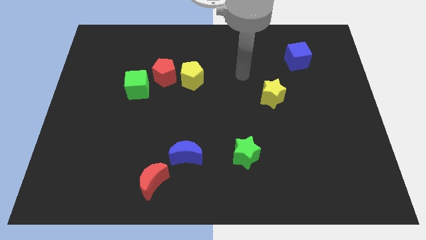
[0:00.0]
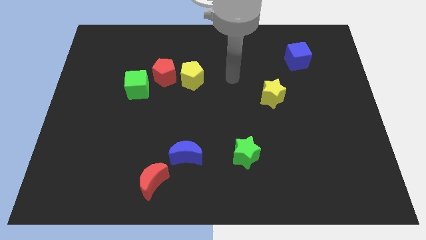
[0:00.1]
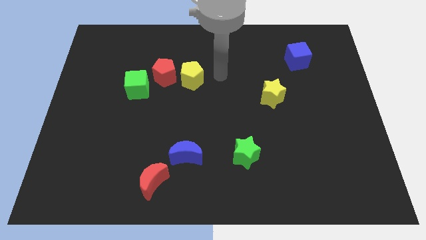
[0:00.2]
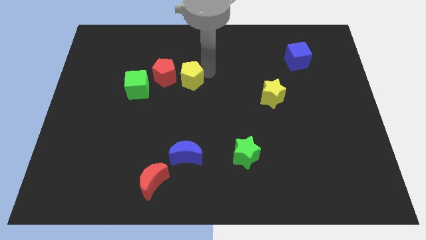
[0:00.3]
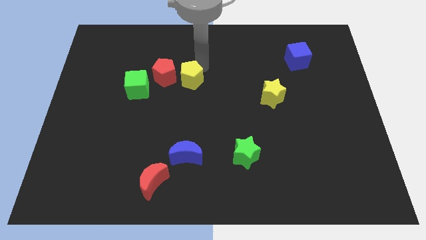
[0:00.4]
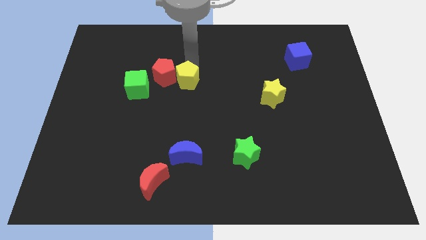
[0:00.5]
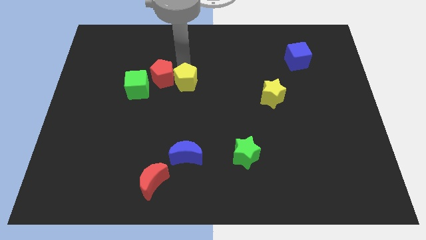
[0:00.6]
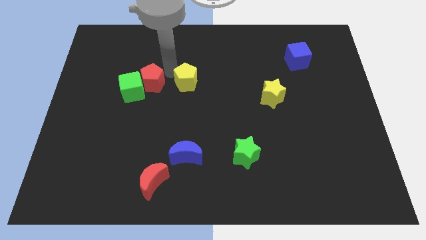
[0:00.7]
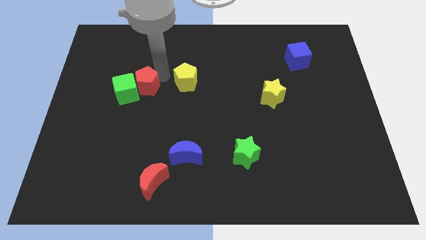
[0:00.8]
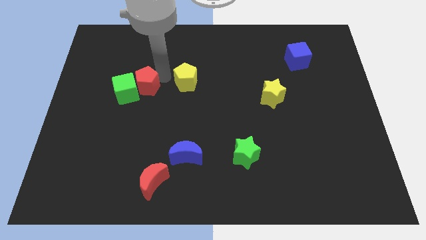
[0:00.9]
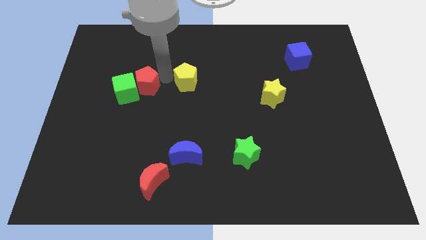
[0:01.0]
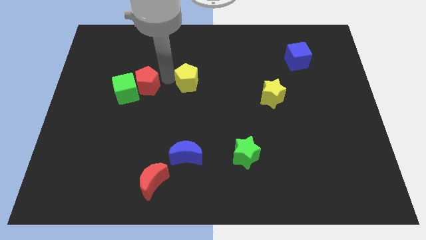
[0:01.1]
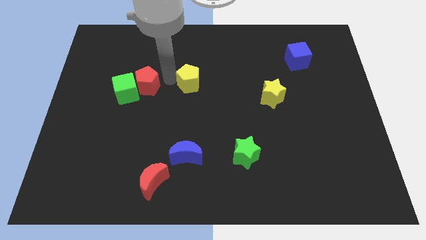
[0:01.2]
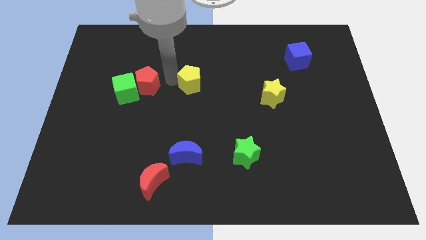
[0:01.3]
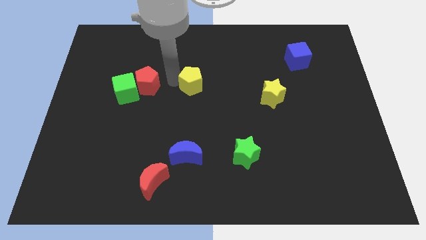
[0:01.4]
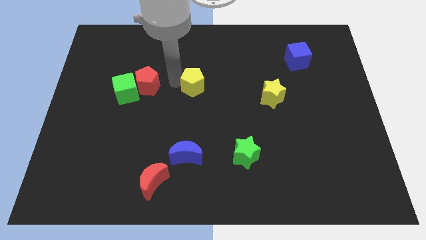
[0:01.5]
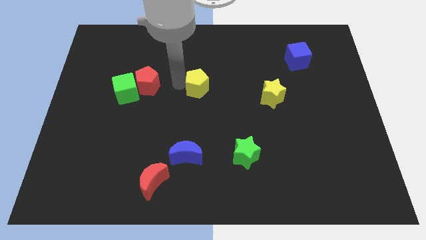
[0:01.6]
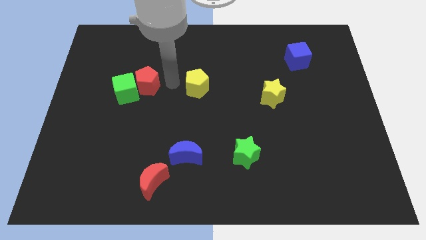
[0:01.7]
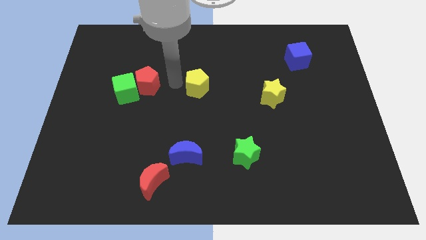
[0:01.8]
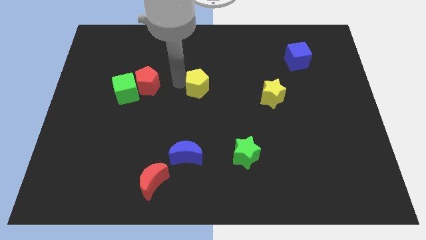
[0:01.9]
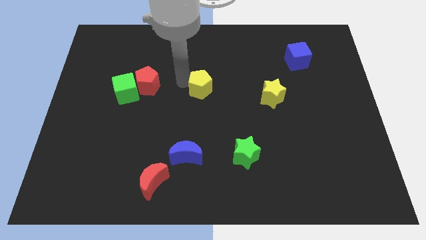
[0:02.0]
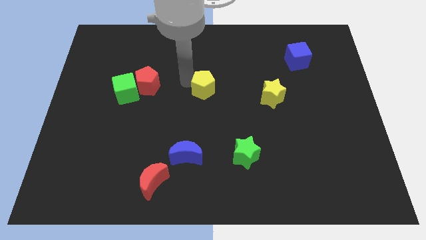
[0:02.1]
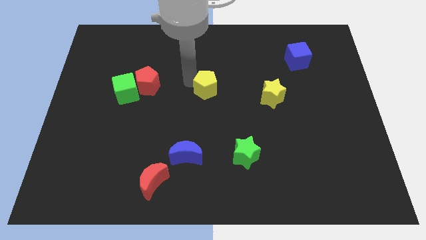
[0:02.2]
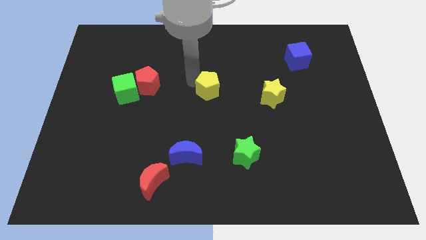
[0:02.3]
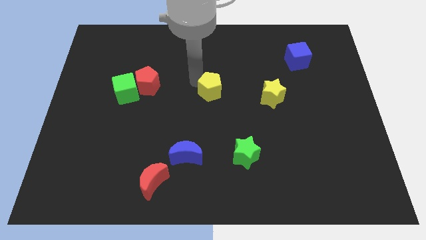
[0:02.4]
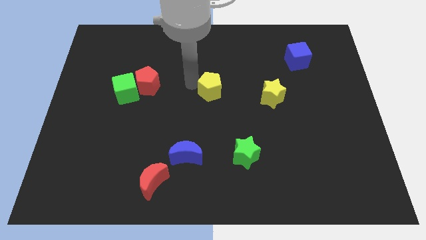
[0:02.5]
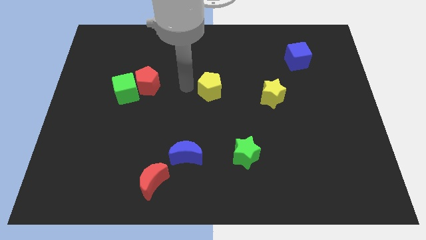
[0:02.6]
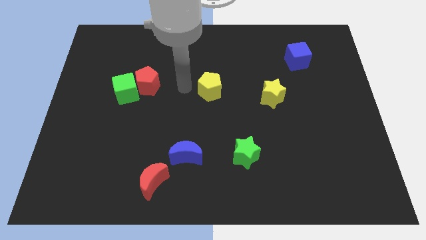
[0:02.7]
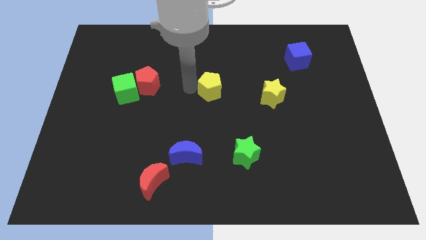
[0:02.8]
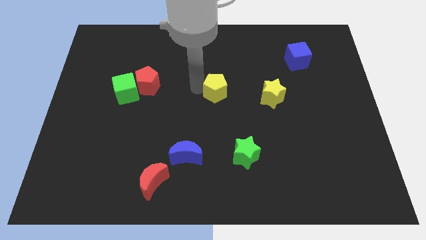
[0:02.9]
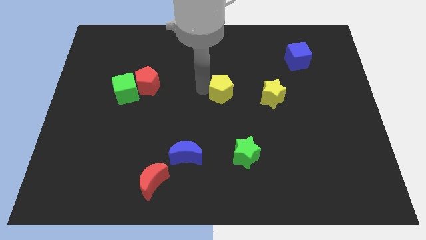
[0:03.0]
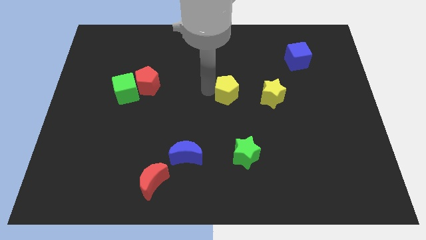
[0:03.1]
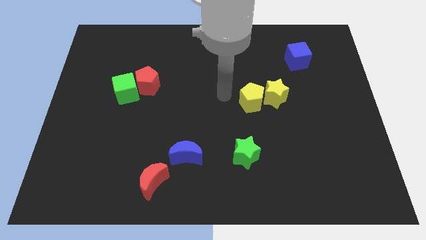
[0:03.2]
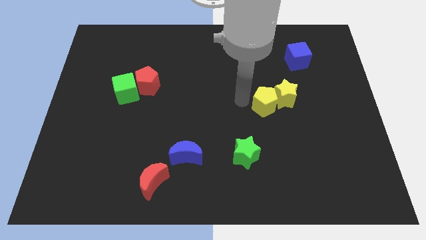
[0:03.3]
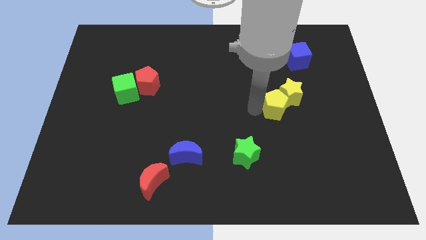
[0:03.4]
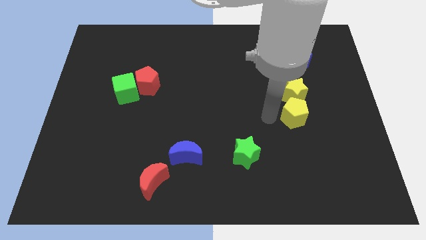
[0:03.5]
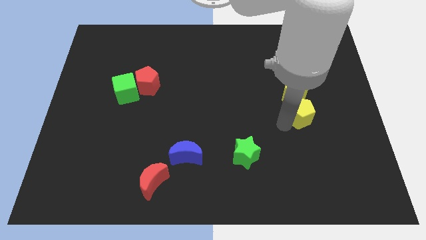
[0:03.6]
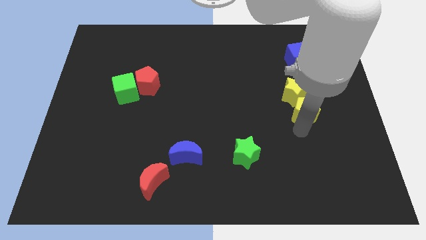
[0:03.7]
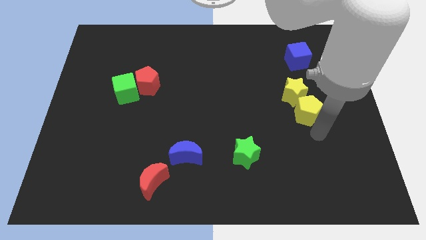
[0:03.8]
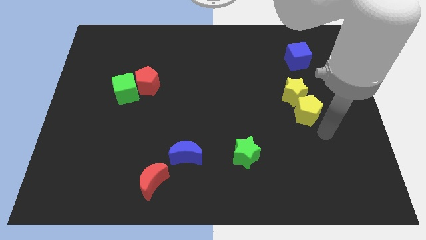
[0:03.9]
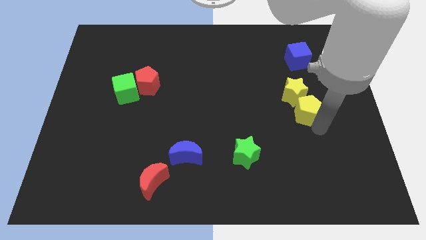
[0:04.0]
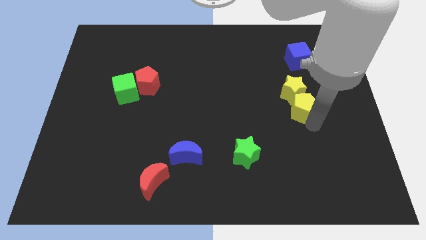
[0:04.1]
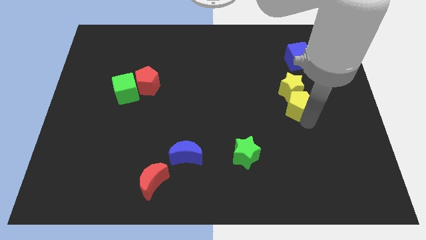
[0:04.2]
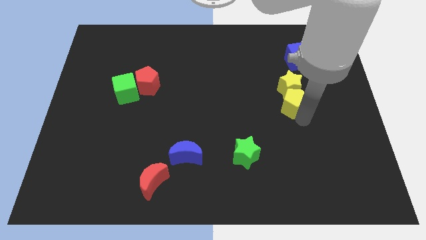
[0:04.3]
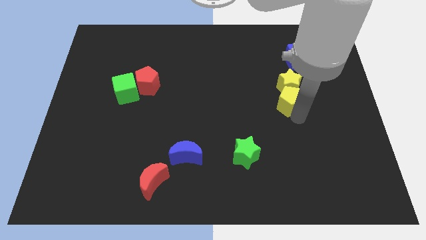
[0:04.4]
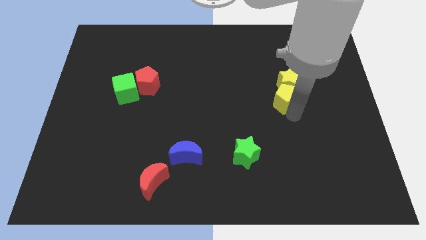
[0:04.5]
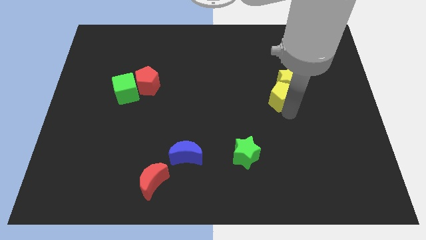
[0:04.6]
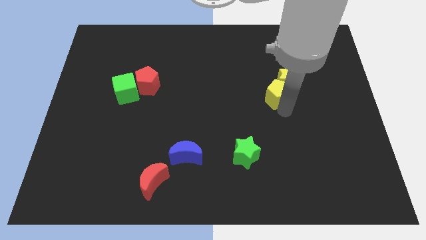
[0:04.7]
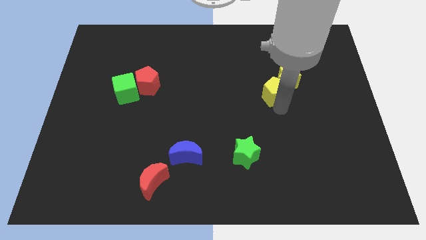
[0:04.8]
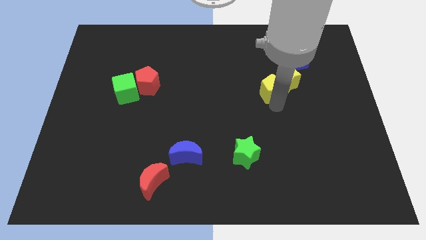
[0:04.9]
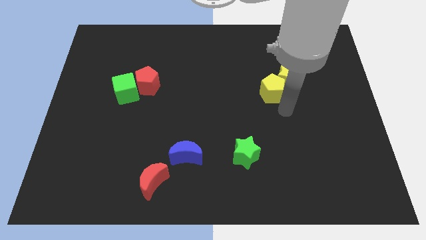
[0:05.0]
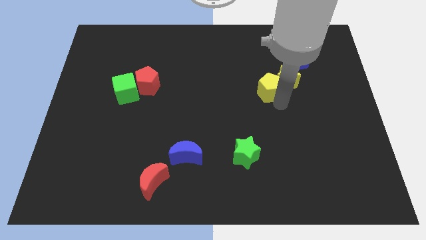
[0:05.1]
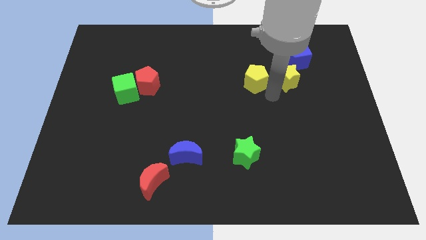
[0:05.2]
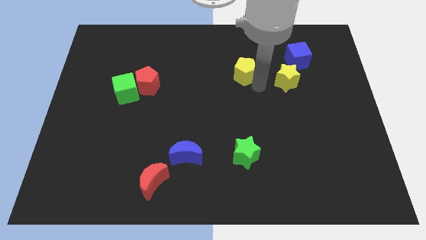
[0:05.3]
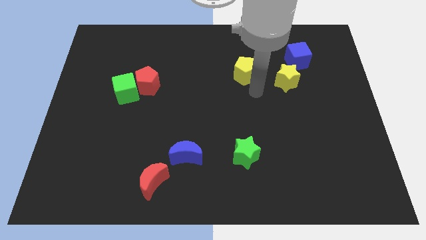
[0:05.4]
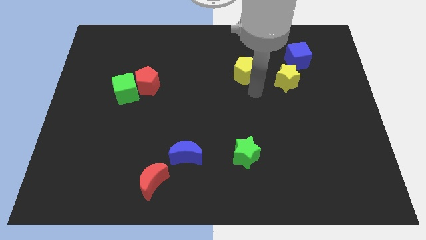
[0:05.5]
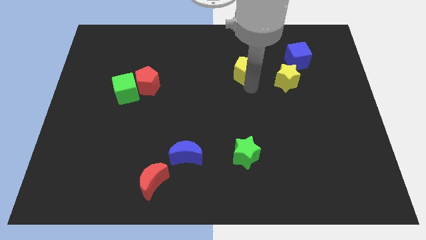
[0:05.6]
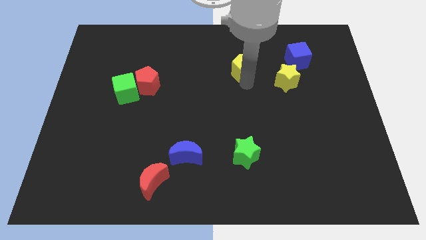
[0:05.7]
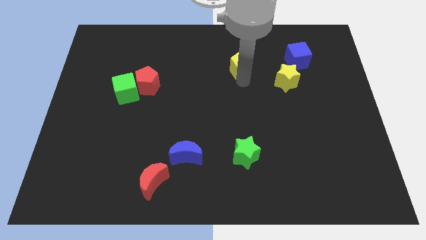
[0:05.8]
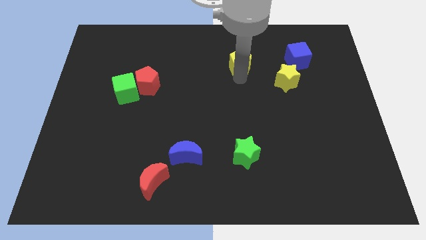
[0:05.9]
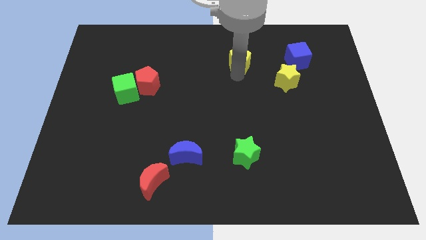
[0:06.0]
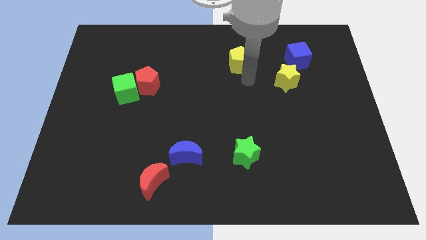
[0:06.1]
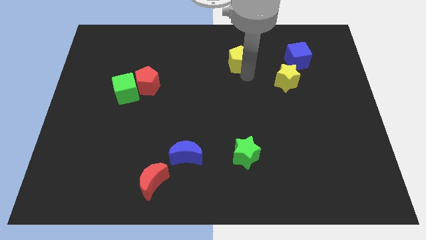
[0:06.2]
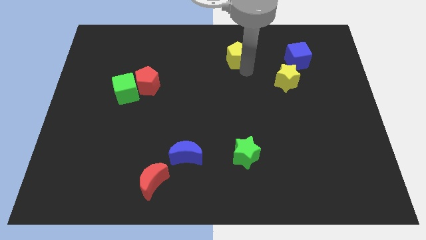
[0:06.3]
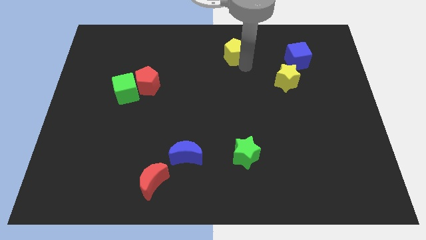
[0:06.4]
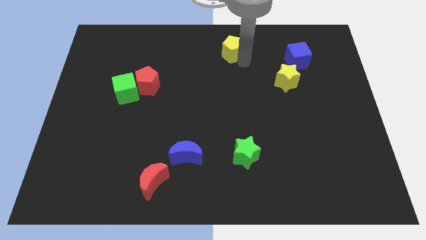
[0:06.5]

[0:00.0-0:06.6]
move the yellow pentagon to the towards your base

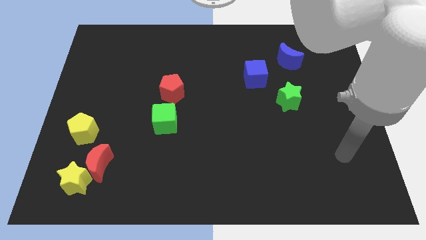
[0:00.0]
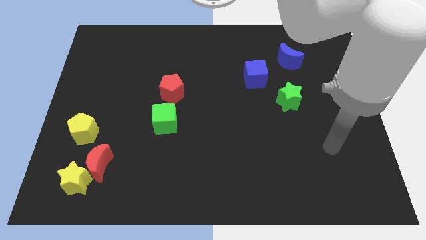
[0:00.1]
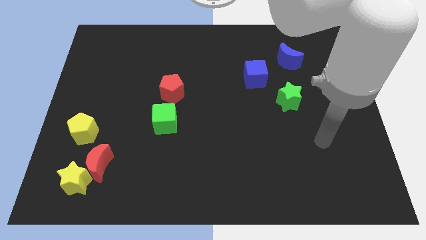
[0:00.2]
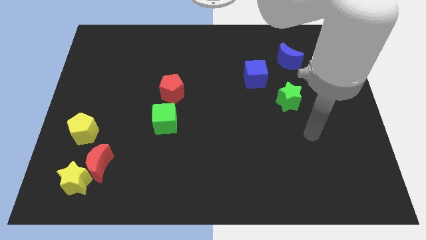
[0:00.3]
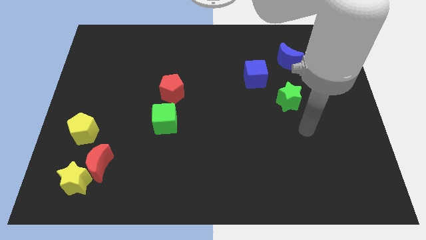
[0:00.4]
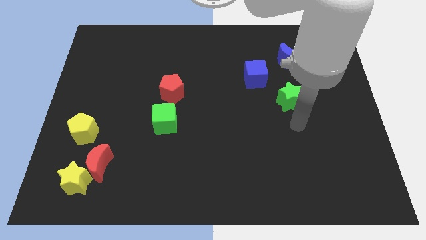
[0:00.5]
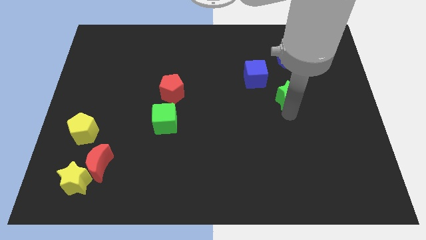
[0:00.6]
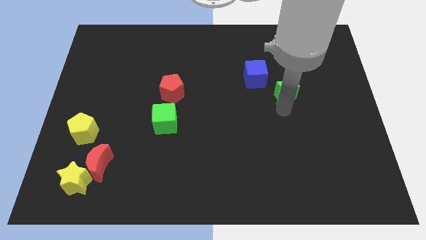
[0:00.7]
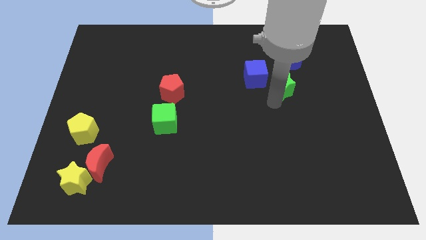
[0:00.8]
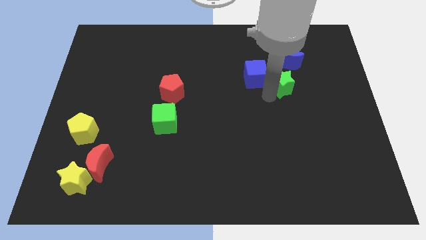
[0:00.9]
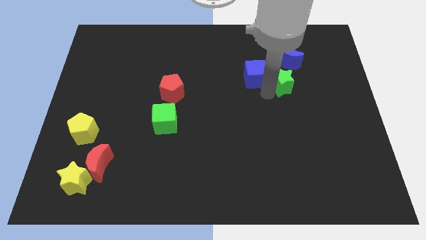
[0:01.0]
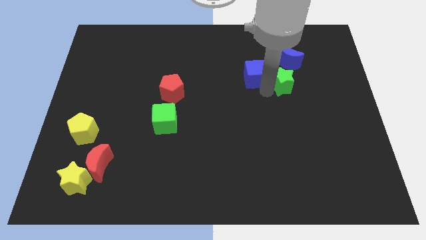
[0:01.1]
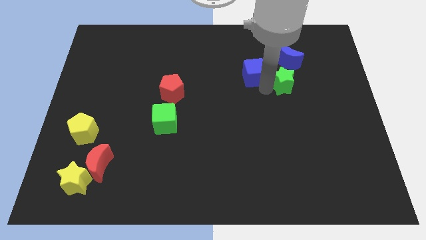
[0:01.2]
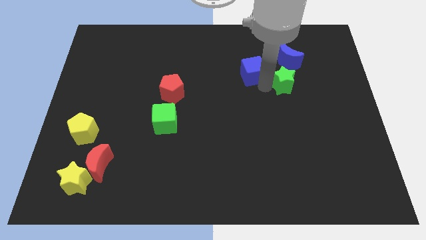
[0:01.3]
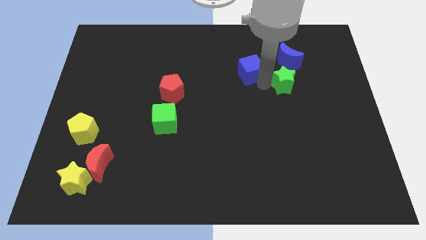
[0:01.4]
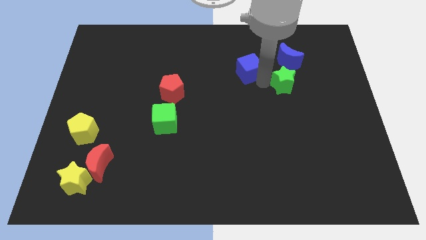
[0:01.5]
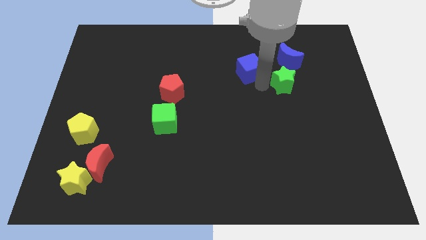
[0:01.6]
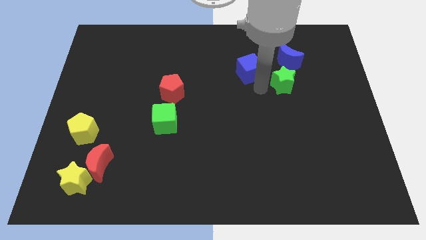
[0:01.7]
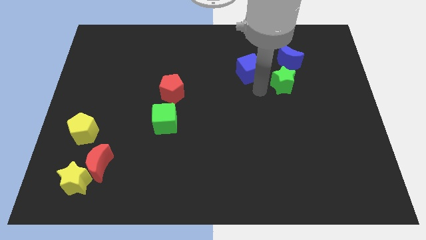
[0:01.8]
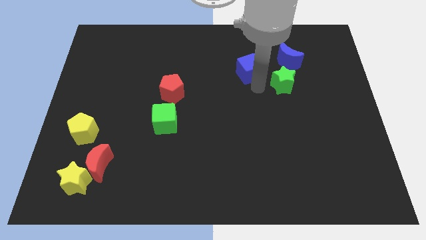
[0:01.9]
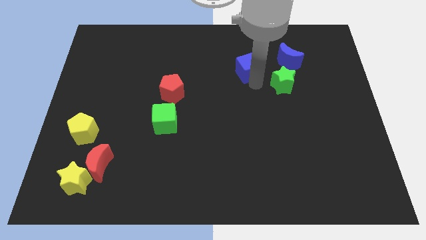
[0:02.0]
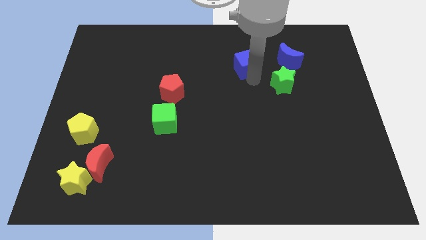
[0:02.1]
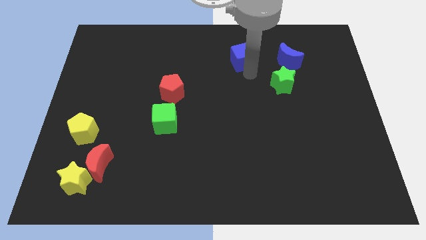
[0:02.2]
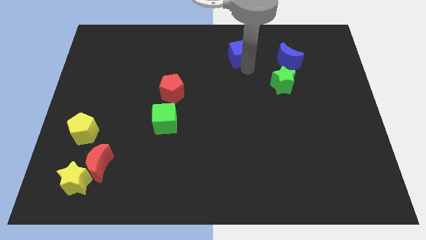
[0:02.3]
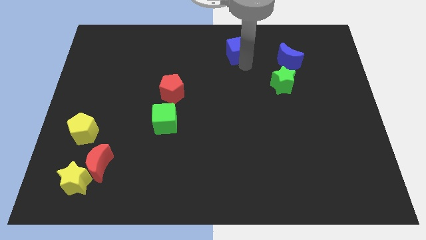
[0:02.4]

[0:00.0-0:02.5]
slide the blue cube to the top
